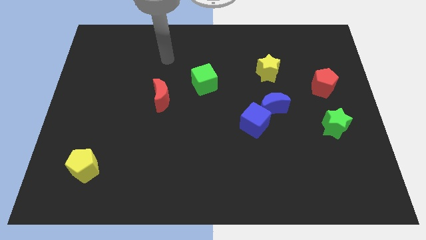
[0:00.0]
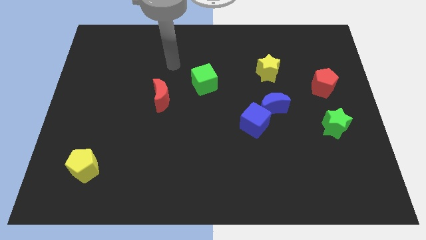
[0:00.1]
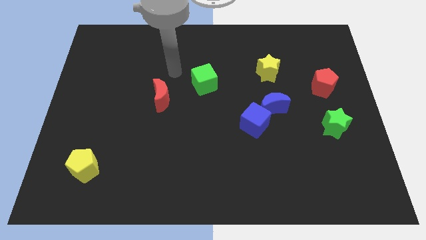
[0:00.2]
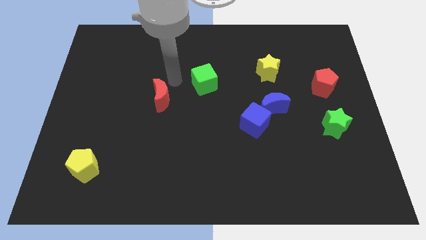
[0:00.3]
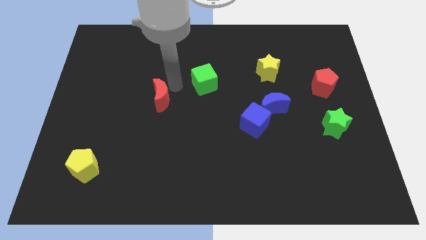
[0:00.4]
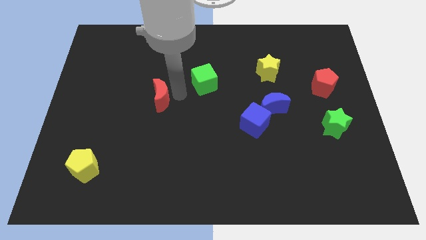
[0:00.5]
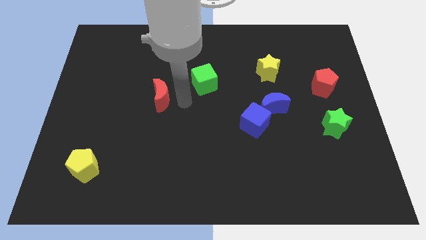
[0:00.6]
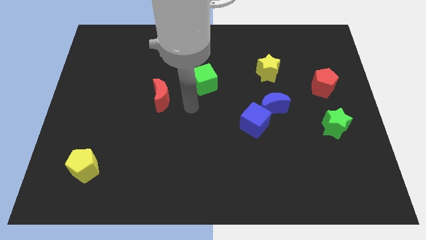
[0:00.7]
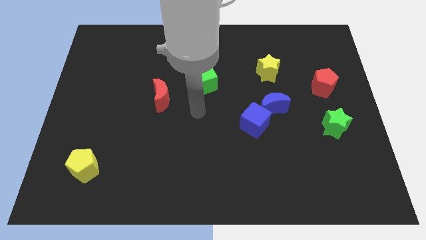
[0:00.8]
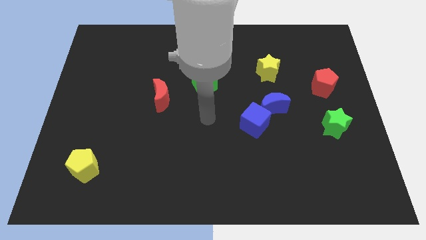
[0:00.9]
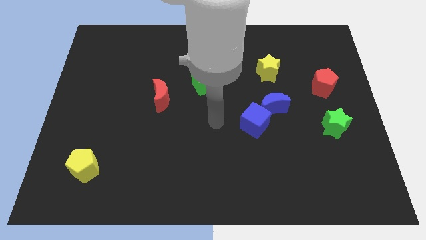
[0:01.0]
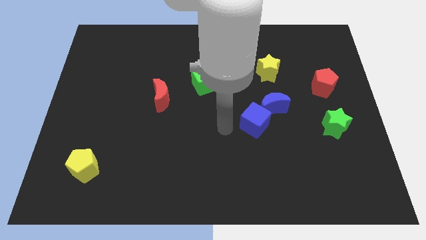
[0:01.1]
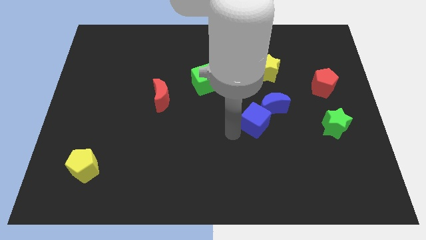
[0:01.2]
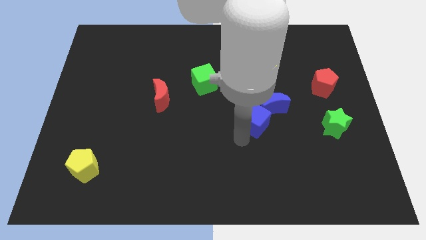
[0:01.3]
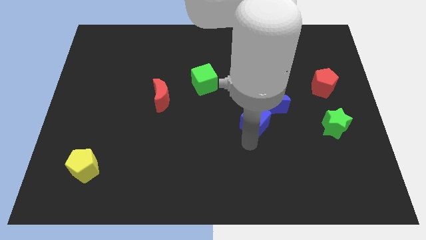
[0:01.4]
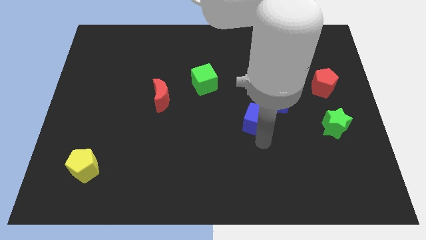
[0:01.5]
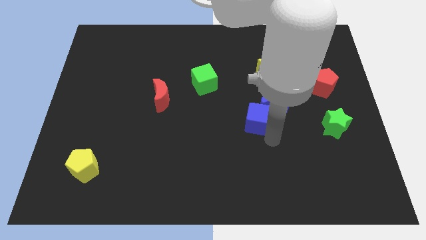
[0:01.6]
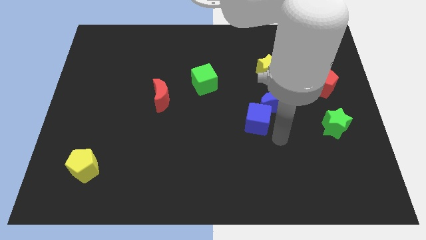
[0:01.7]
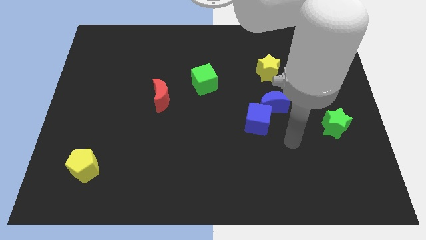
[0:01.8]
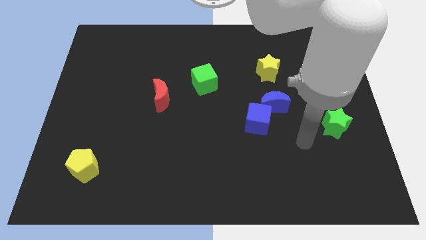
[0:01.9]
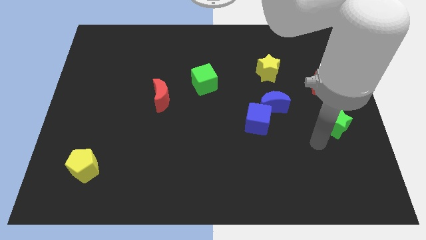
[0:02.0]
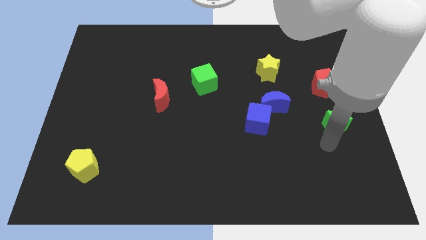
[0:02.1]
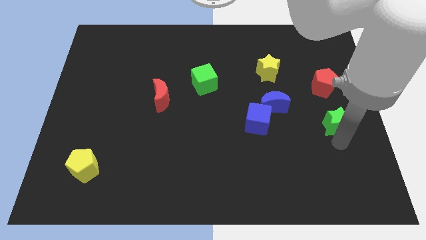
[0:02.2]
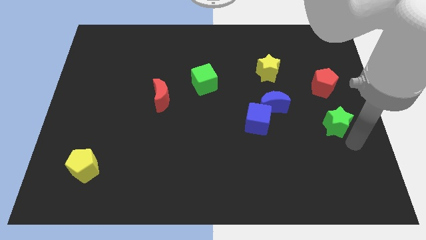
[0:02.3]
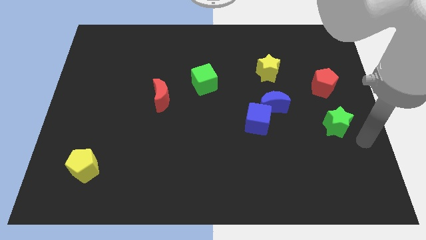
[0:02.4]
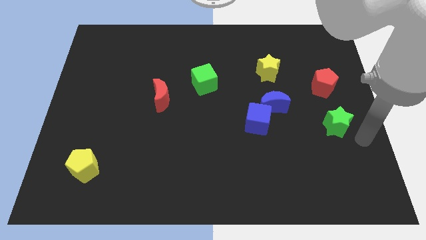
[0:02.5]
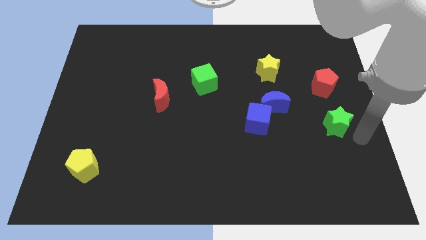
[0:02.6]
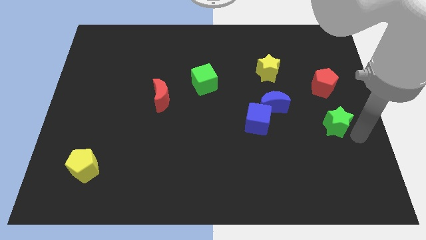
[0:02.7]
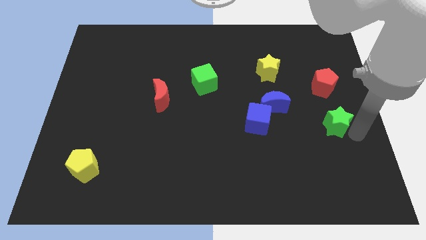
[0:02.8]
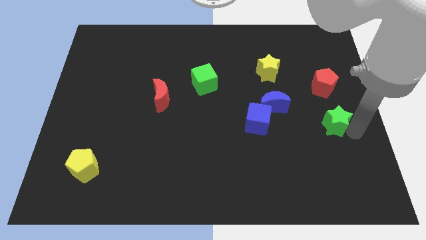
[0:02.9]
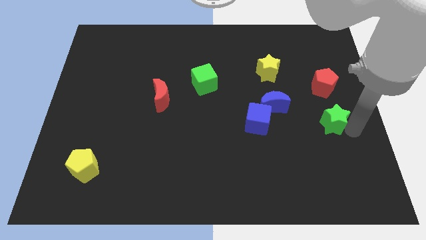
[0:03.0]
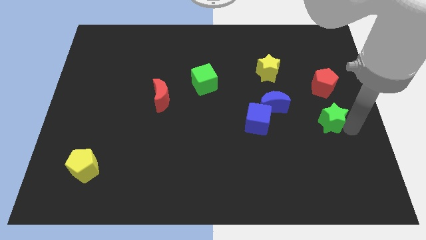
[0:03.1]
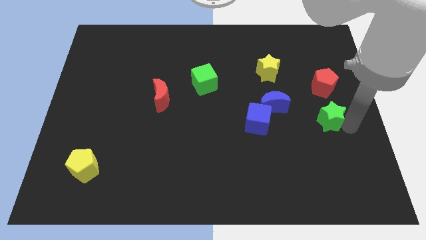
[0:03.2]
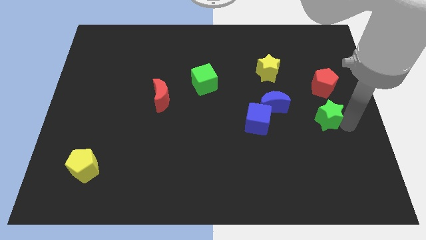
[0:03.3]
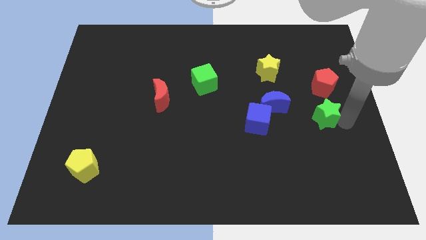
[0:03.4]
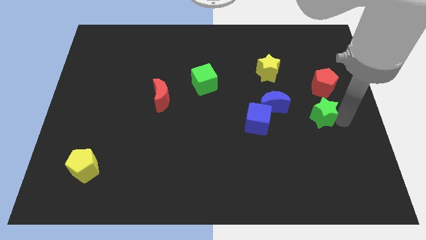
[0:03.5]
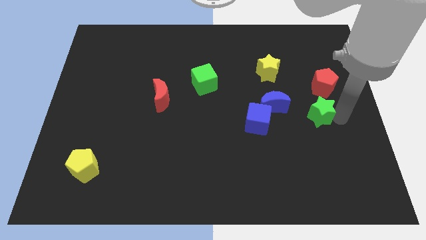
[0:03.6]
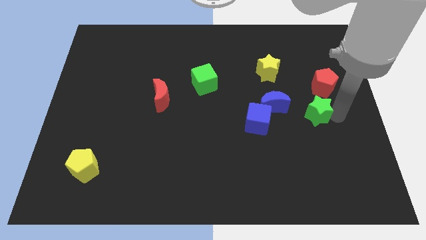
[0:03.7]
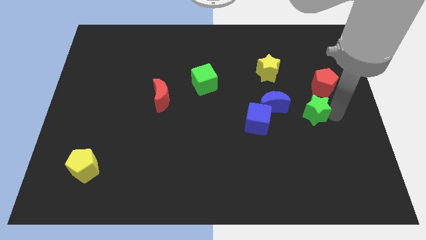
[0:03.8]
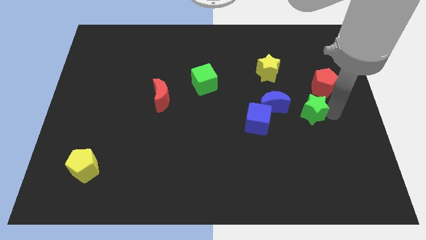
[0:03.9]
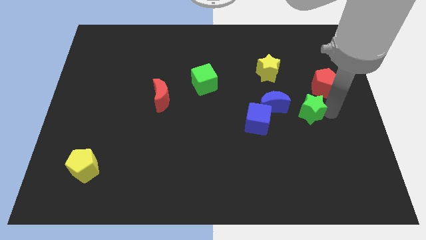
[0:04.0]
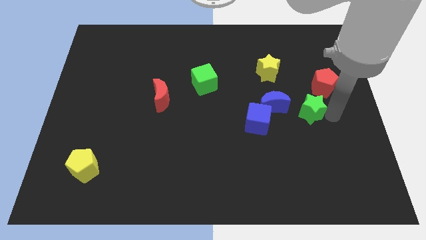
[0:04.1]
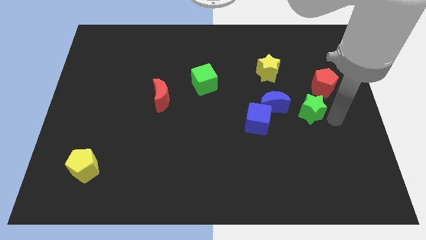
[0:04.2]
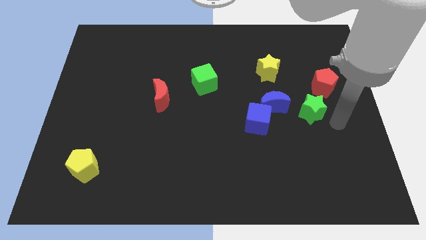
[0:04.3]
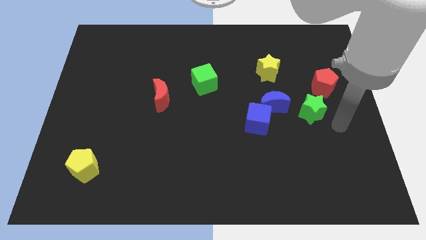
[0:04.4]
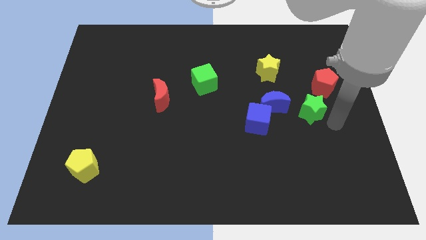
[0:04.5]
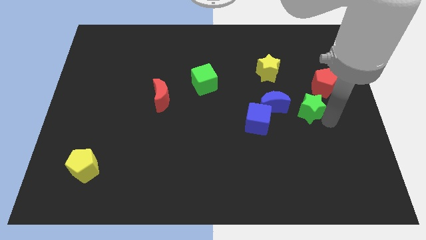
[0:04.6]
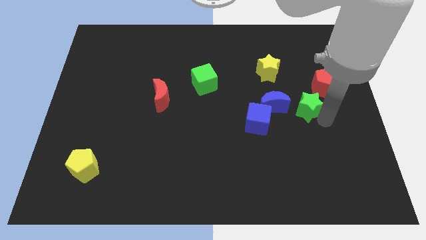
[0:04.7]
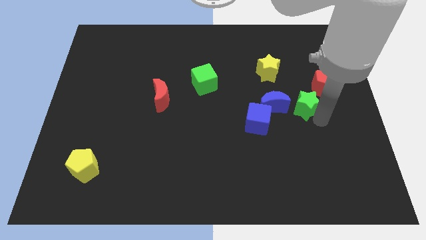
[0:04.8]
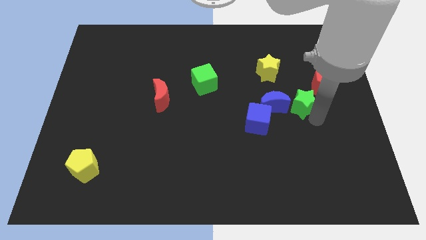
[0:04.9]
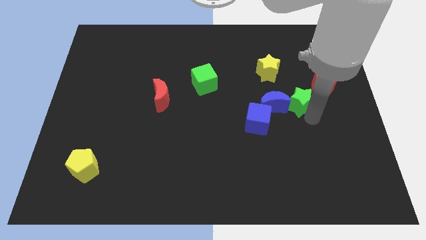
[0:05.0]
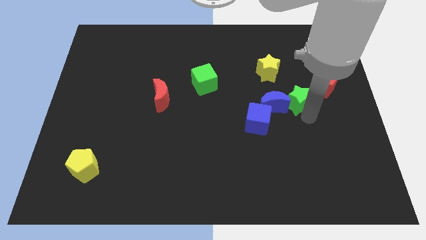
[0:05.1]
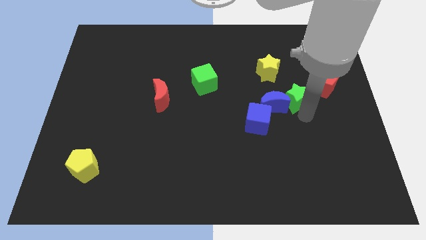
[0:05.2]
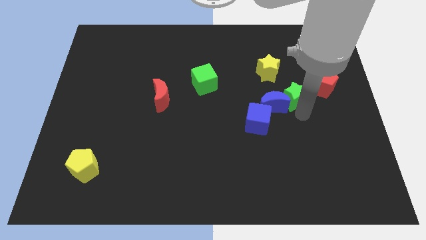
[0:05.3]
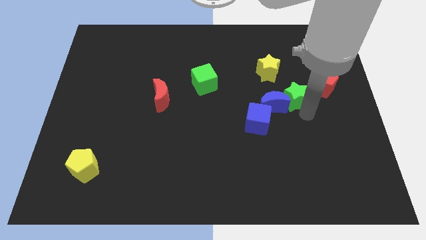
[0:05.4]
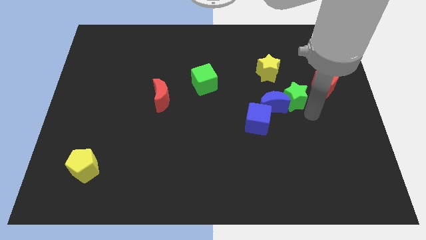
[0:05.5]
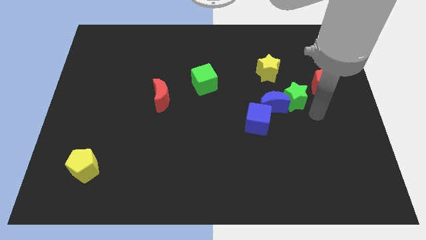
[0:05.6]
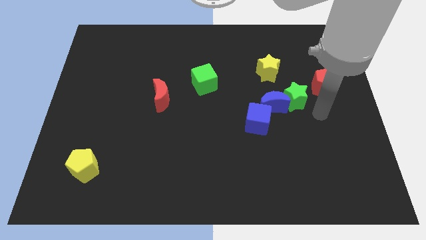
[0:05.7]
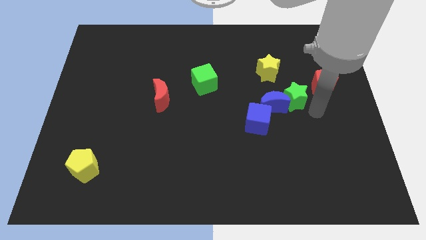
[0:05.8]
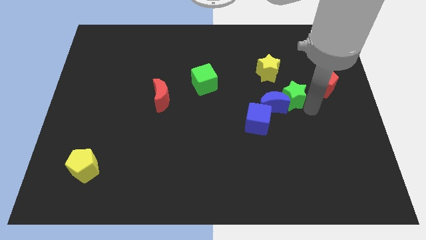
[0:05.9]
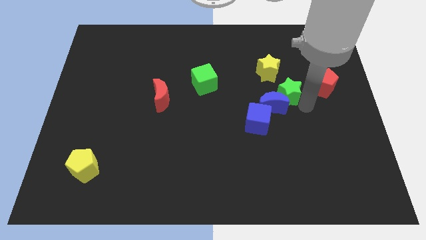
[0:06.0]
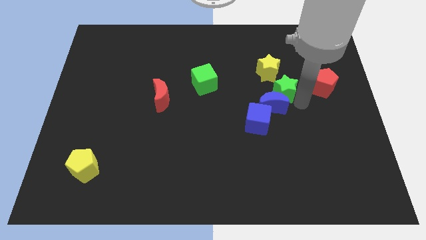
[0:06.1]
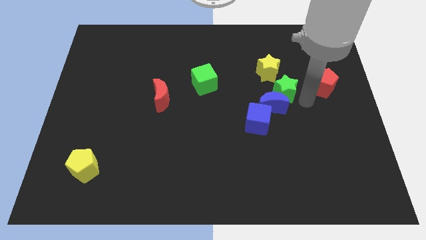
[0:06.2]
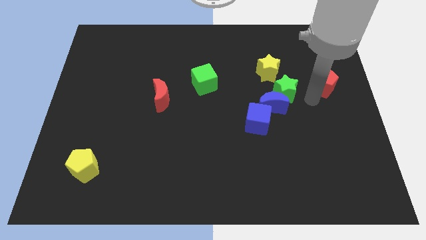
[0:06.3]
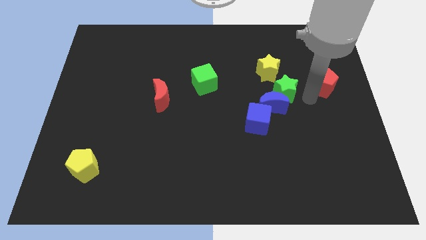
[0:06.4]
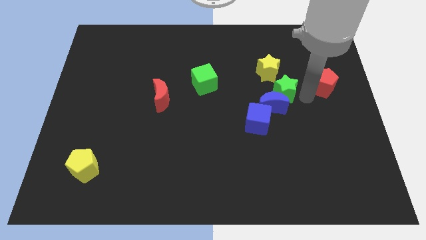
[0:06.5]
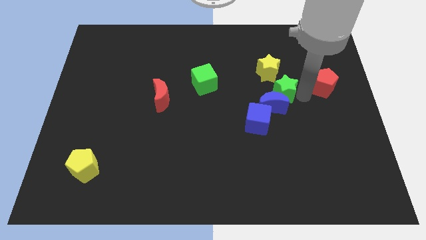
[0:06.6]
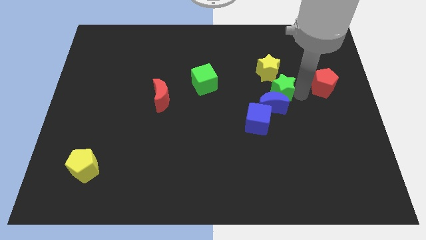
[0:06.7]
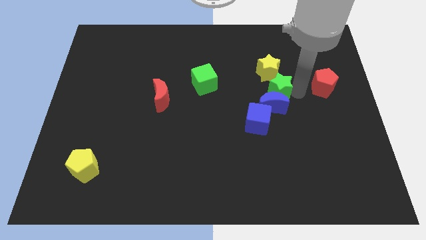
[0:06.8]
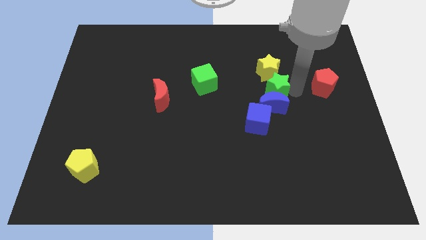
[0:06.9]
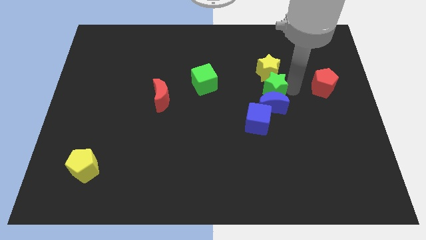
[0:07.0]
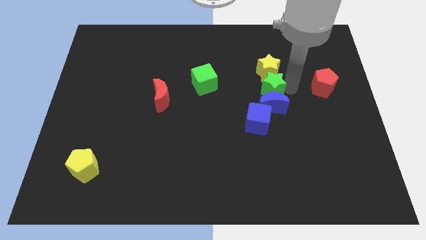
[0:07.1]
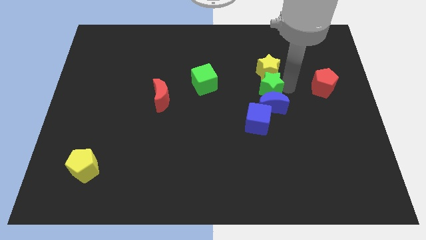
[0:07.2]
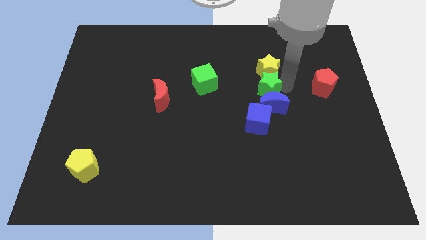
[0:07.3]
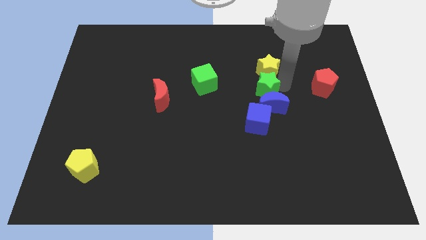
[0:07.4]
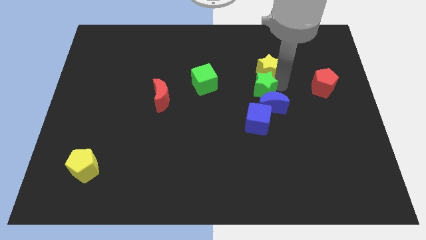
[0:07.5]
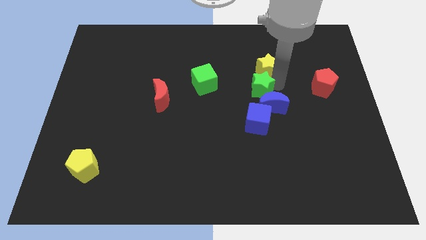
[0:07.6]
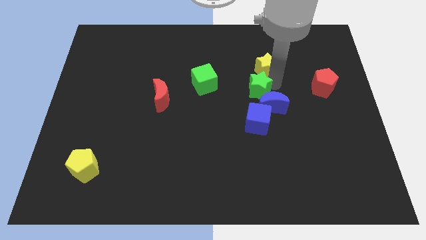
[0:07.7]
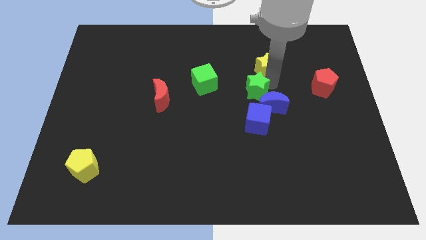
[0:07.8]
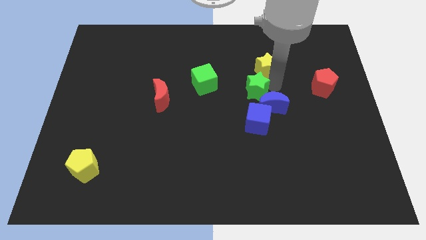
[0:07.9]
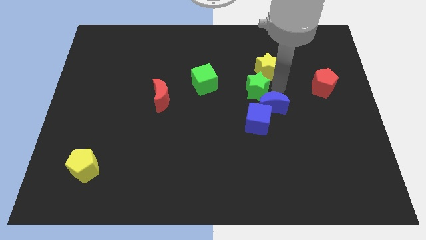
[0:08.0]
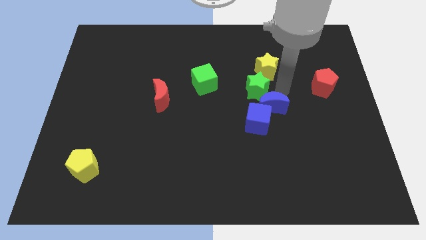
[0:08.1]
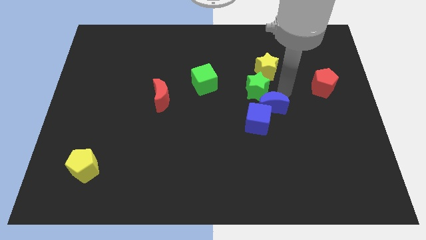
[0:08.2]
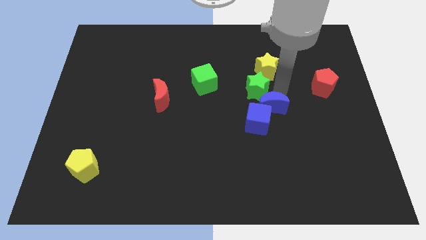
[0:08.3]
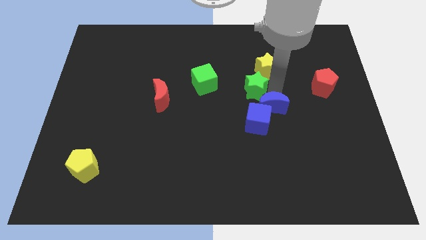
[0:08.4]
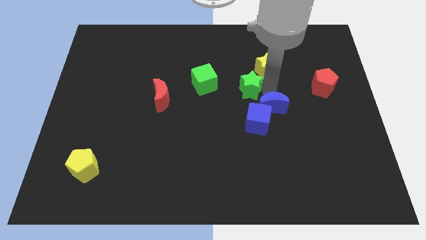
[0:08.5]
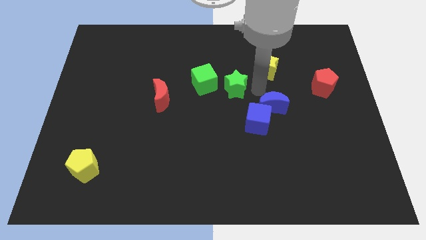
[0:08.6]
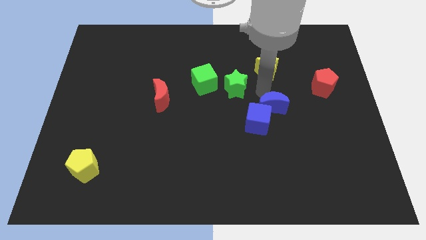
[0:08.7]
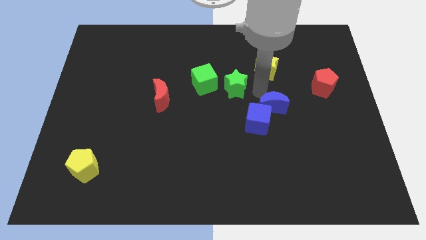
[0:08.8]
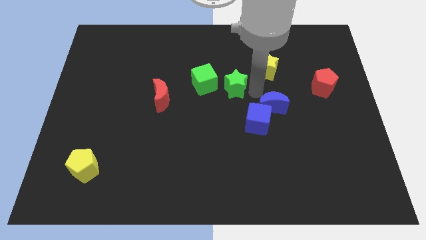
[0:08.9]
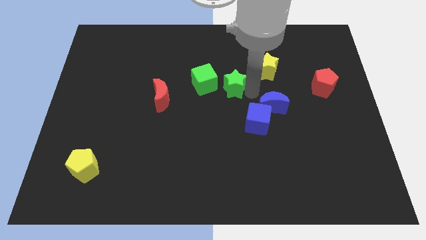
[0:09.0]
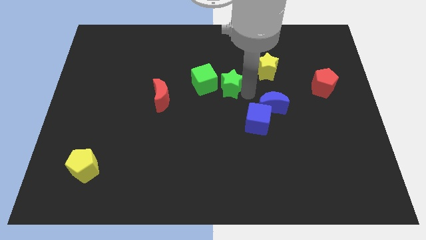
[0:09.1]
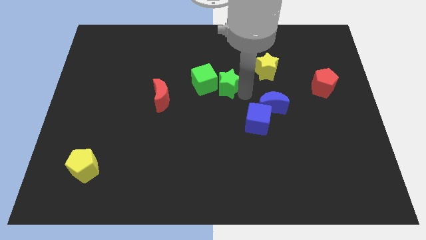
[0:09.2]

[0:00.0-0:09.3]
move the green star towards the green cube
